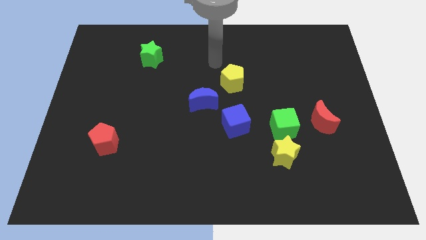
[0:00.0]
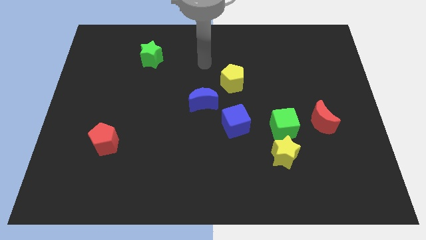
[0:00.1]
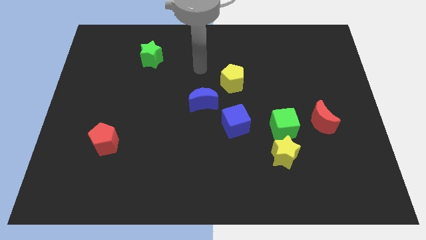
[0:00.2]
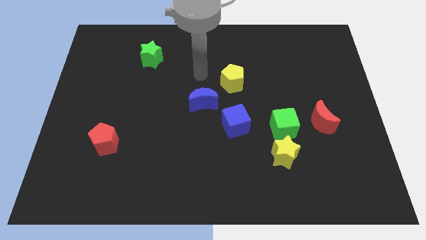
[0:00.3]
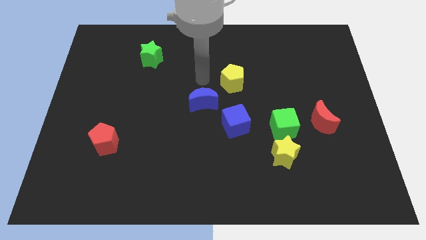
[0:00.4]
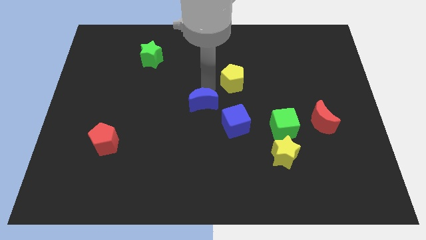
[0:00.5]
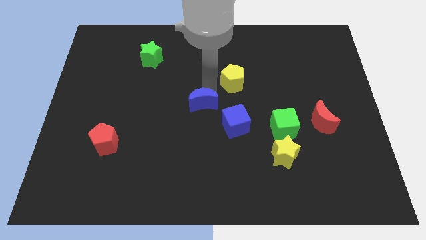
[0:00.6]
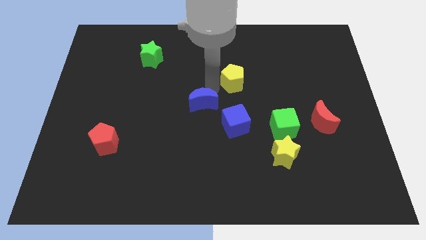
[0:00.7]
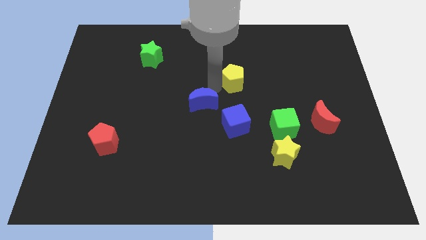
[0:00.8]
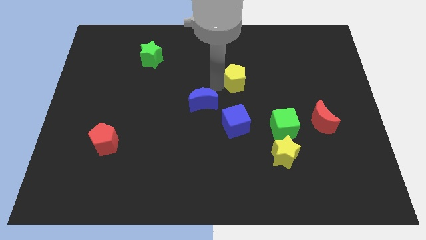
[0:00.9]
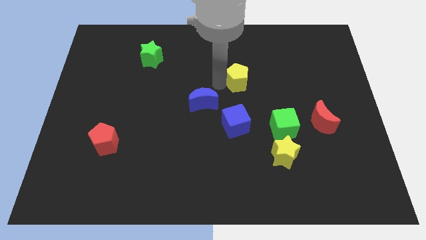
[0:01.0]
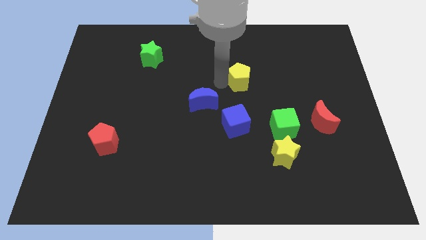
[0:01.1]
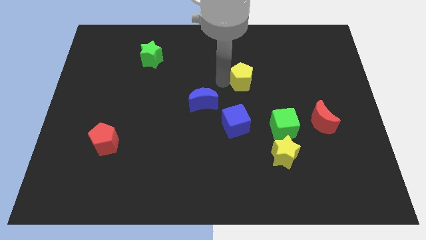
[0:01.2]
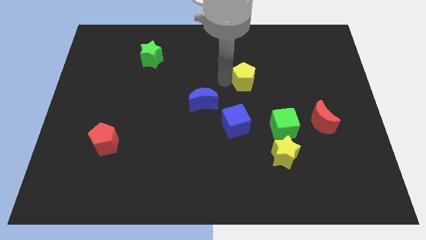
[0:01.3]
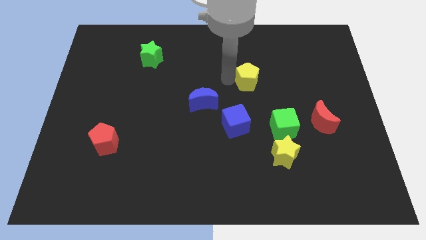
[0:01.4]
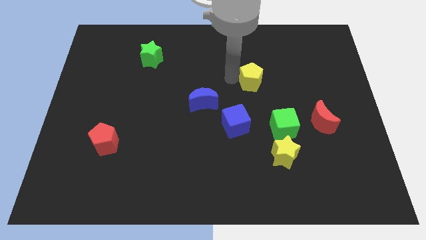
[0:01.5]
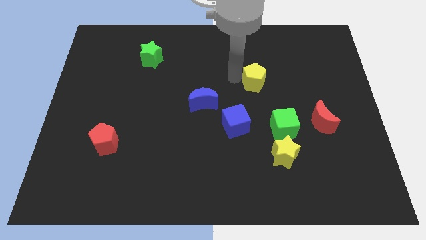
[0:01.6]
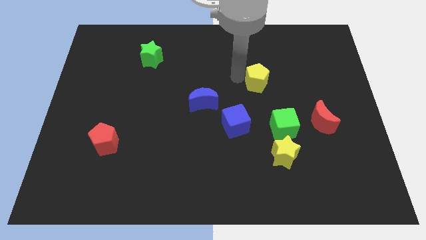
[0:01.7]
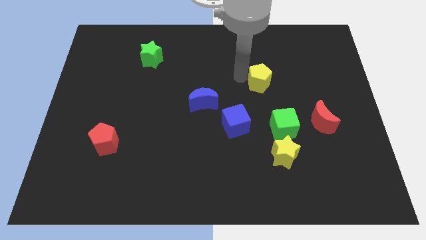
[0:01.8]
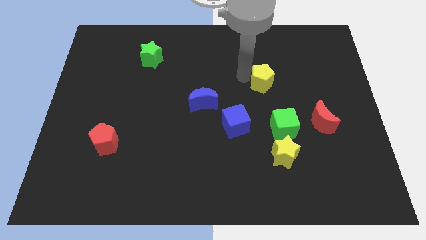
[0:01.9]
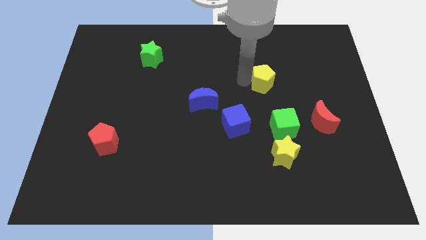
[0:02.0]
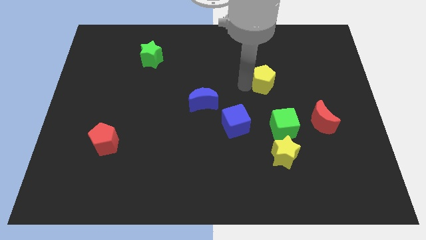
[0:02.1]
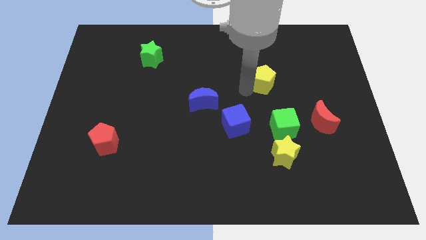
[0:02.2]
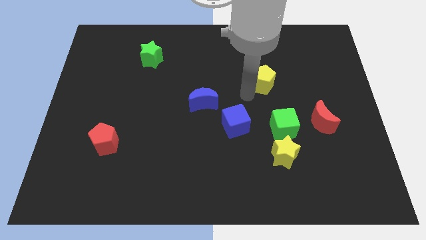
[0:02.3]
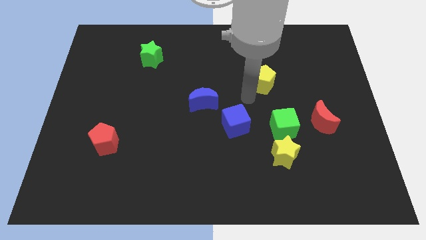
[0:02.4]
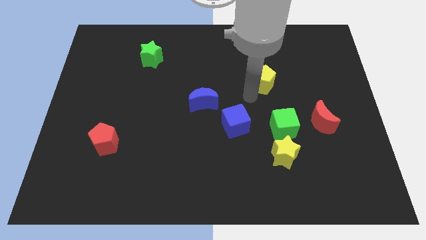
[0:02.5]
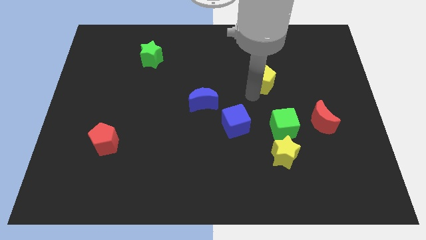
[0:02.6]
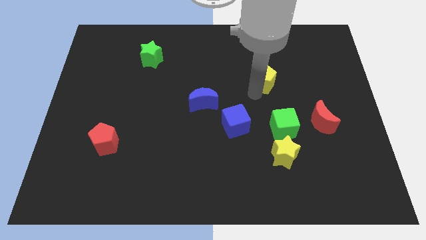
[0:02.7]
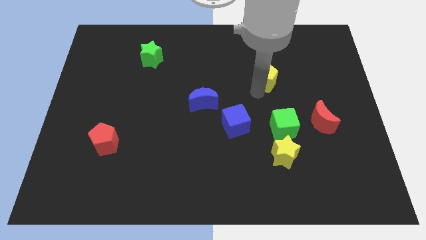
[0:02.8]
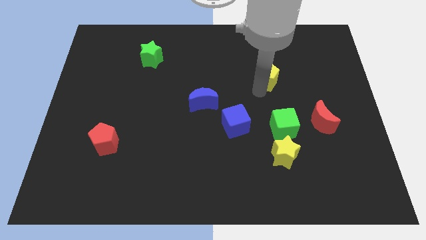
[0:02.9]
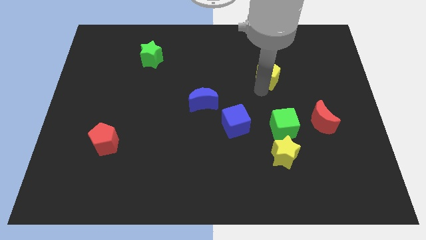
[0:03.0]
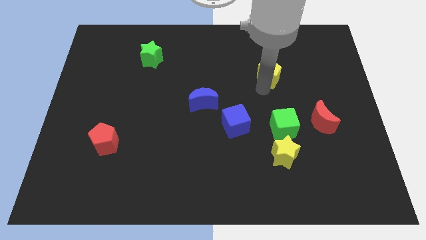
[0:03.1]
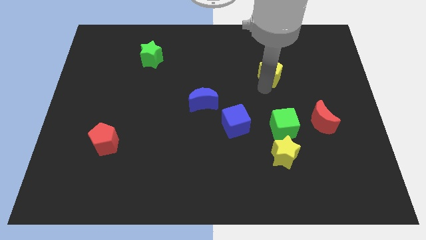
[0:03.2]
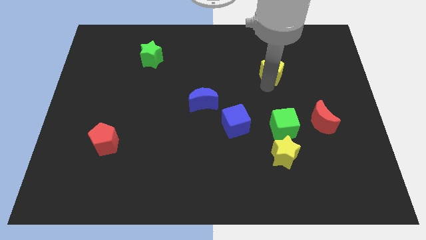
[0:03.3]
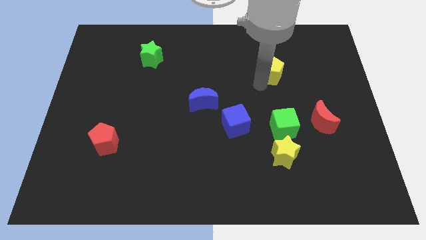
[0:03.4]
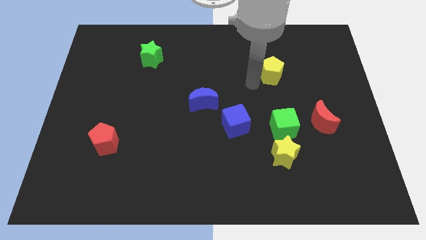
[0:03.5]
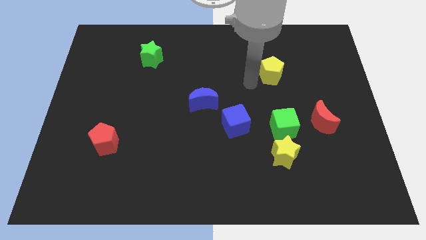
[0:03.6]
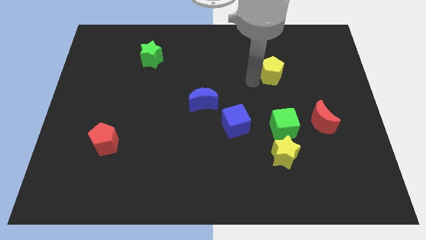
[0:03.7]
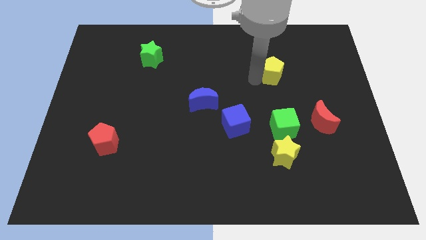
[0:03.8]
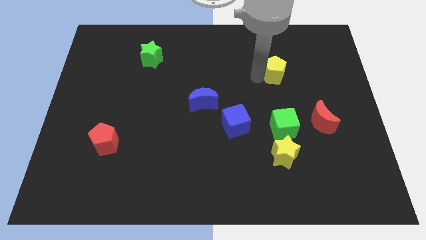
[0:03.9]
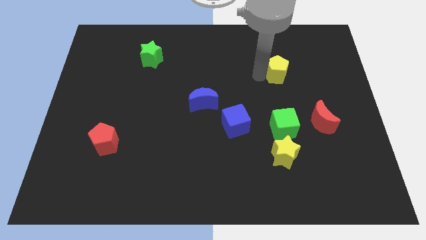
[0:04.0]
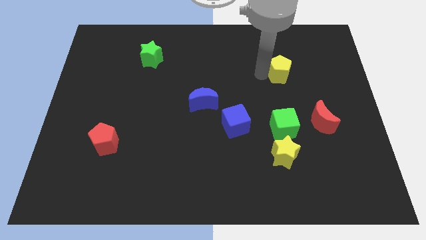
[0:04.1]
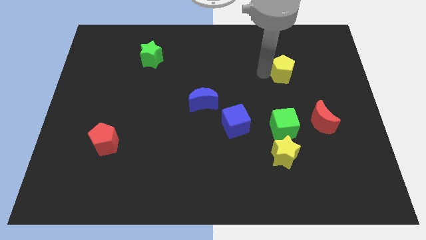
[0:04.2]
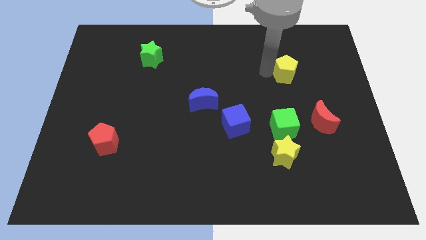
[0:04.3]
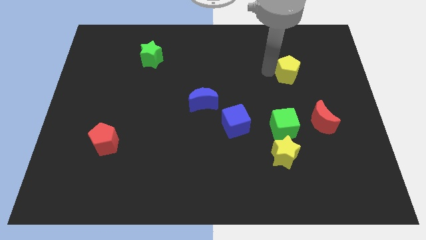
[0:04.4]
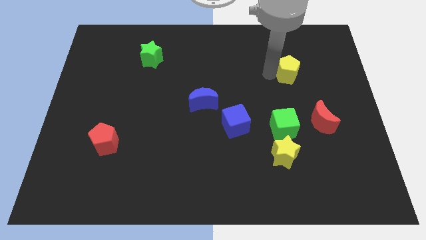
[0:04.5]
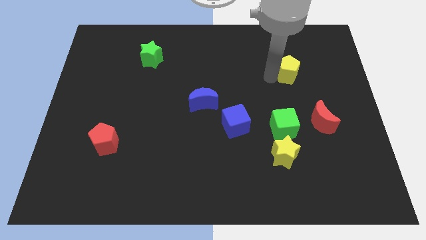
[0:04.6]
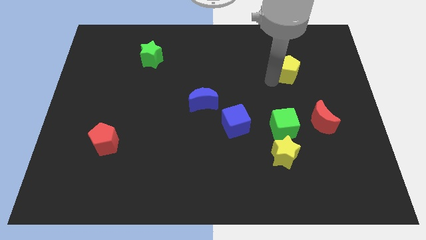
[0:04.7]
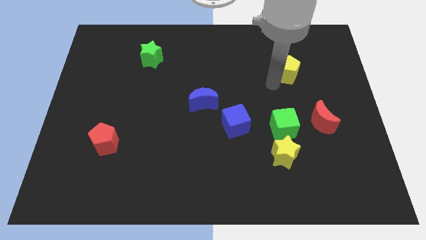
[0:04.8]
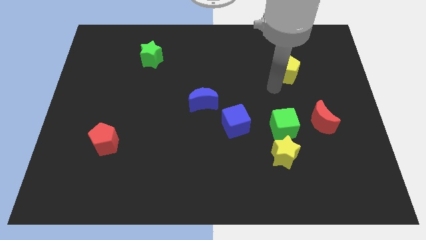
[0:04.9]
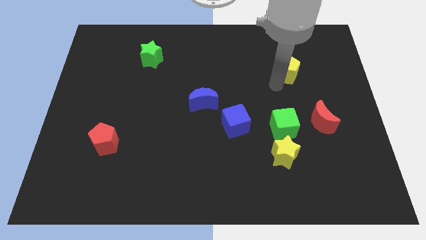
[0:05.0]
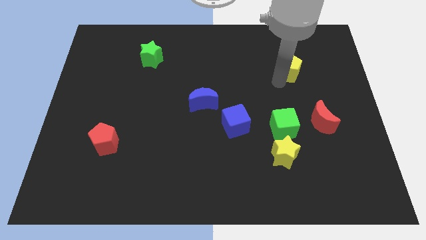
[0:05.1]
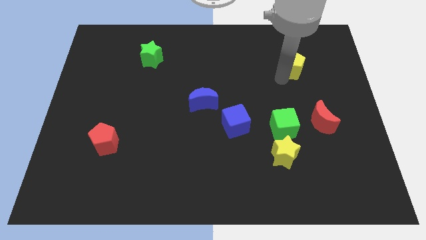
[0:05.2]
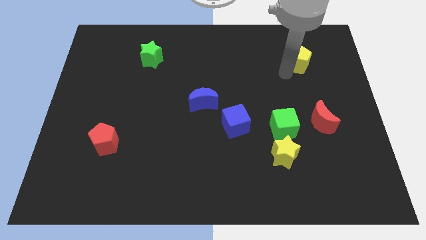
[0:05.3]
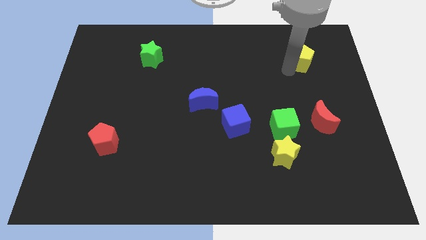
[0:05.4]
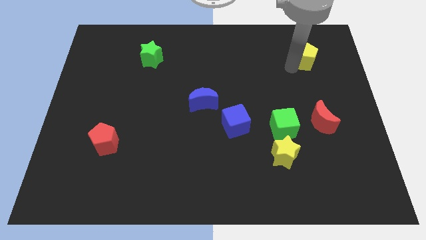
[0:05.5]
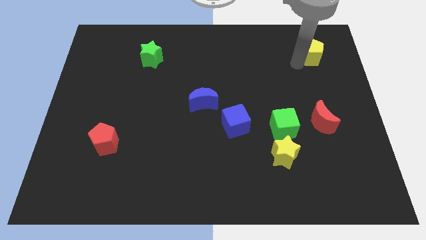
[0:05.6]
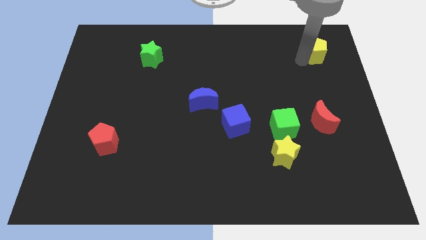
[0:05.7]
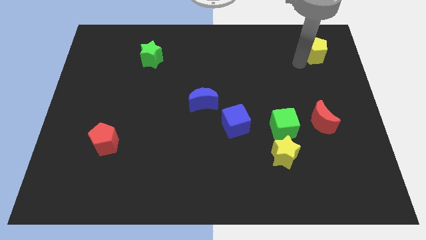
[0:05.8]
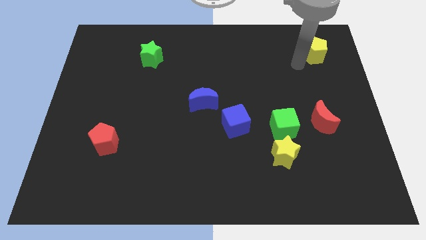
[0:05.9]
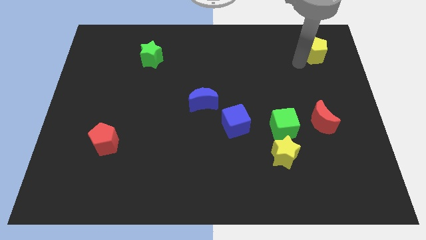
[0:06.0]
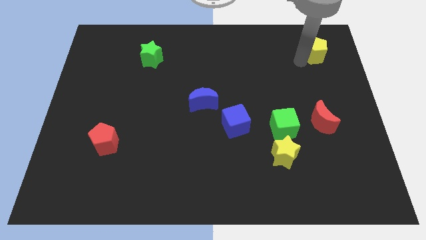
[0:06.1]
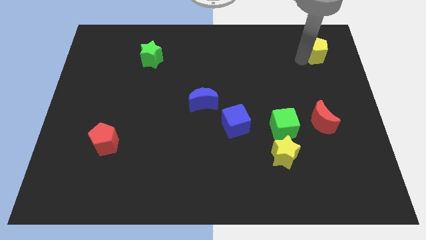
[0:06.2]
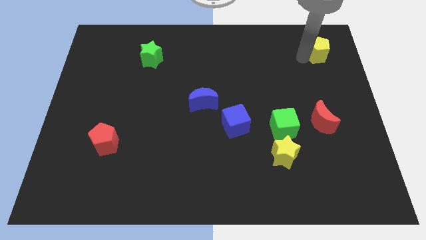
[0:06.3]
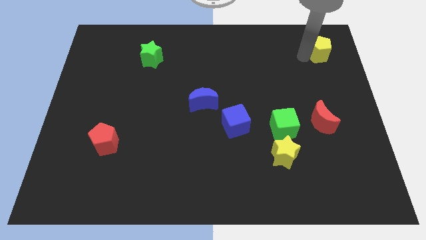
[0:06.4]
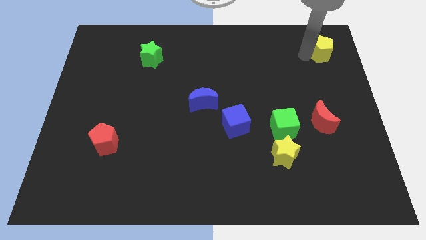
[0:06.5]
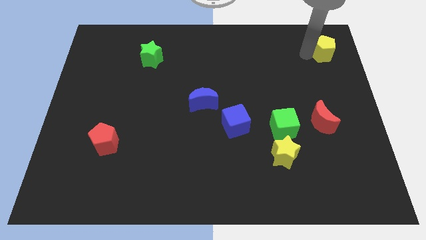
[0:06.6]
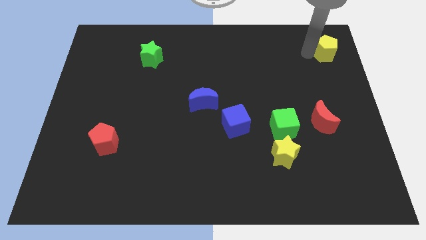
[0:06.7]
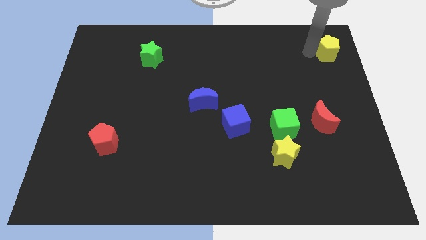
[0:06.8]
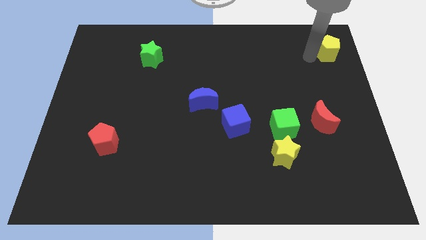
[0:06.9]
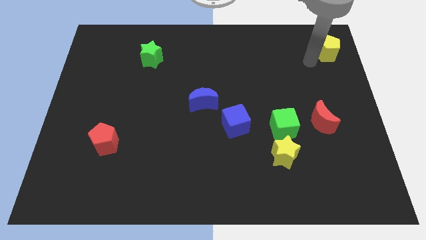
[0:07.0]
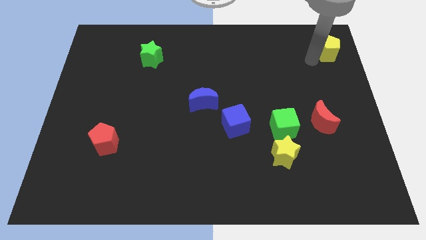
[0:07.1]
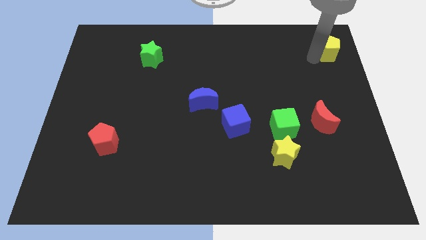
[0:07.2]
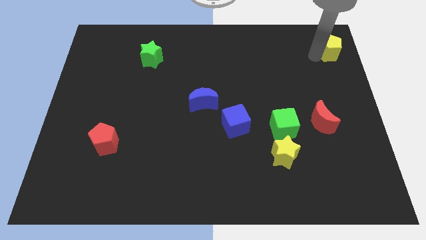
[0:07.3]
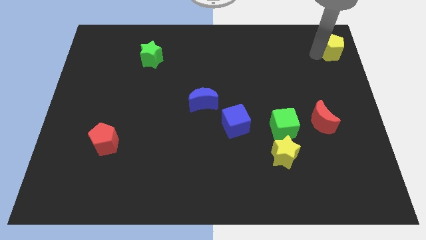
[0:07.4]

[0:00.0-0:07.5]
put the yellow pentagon to the top right of the board
